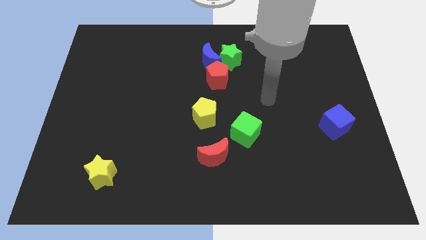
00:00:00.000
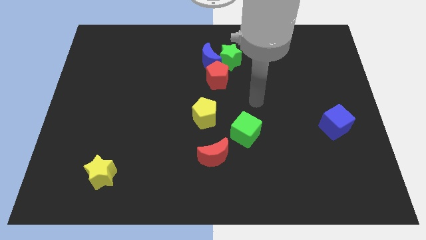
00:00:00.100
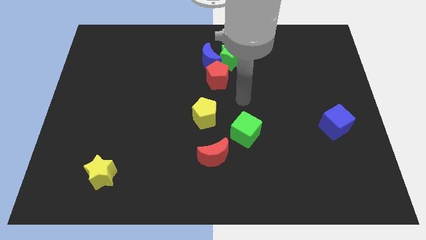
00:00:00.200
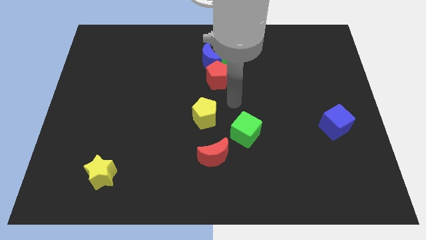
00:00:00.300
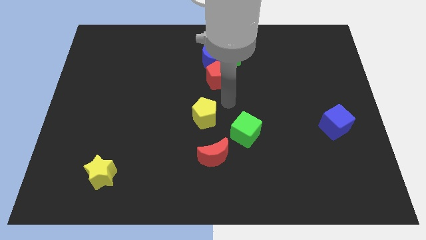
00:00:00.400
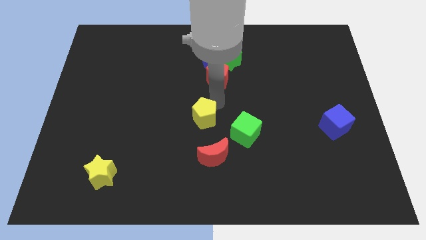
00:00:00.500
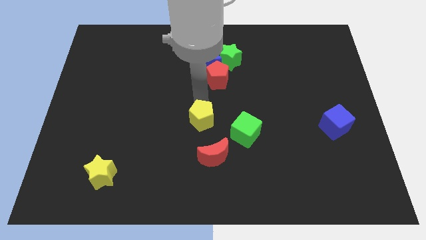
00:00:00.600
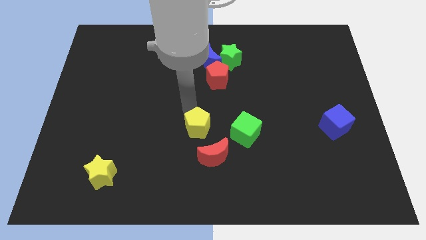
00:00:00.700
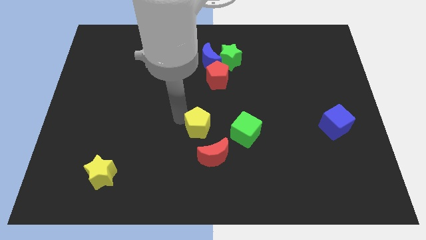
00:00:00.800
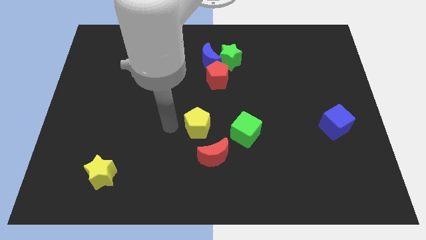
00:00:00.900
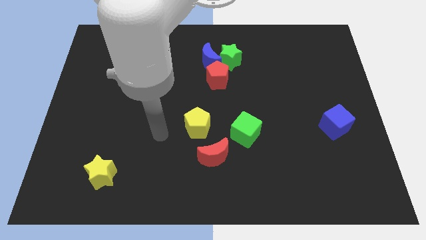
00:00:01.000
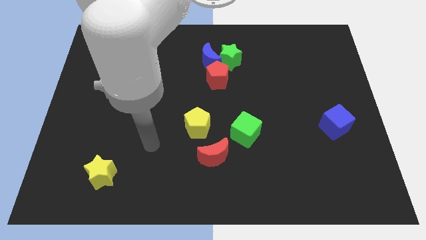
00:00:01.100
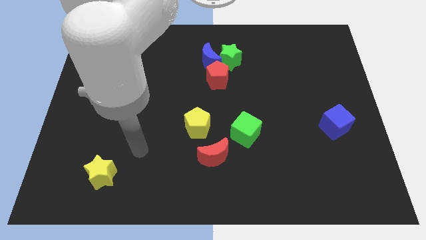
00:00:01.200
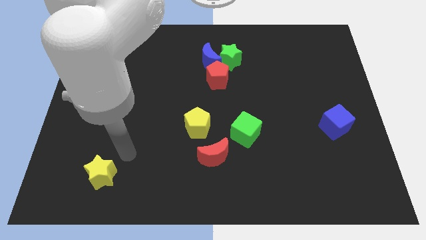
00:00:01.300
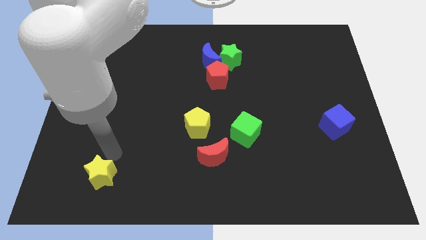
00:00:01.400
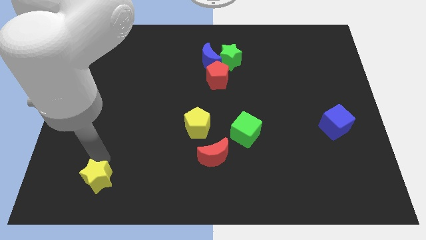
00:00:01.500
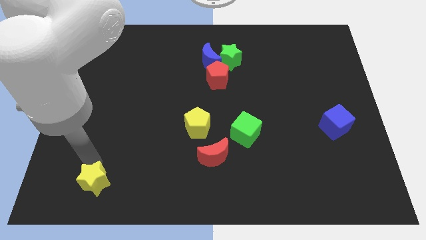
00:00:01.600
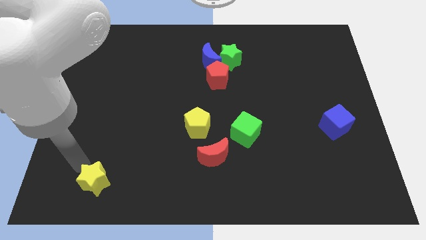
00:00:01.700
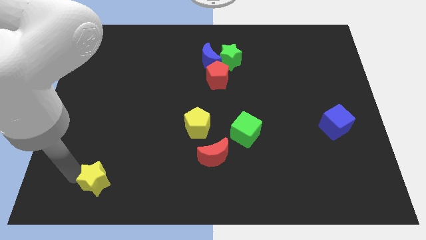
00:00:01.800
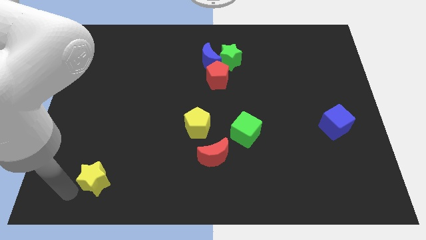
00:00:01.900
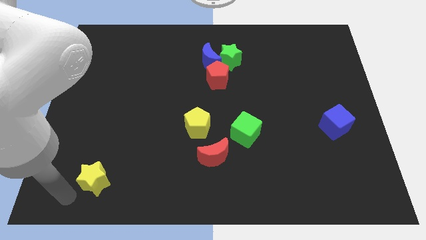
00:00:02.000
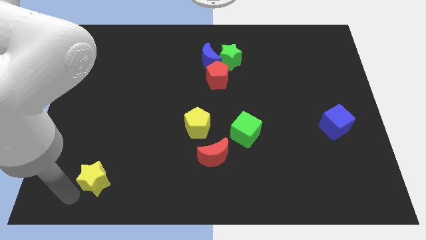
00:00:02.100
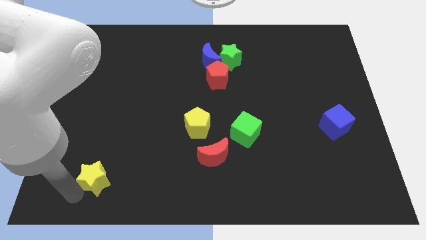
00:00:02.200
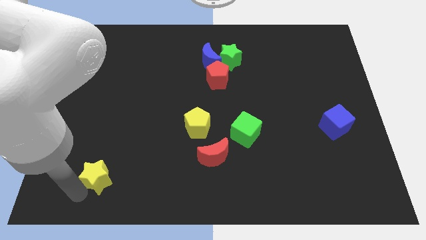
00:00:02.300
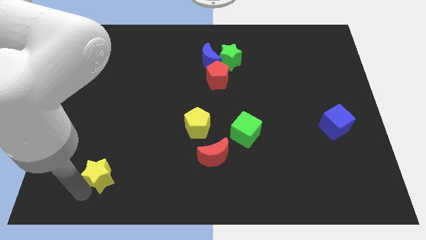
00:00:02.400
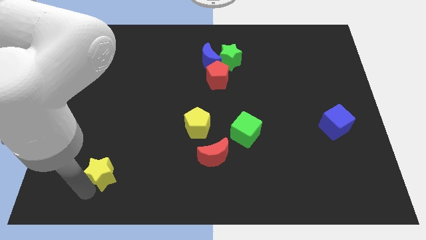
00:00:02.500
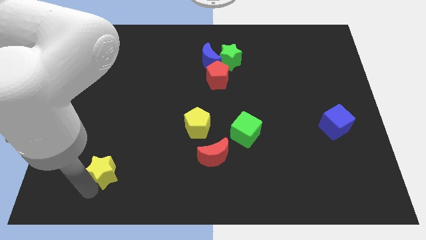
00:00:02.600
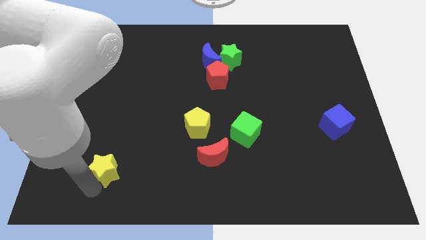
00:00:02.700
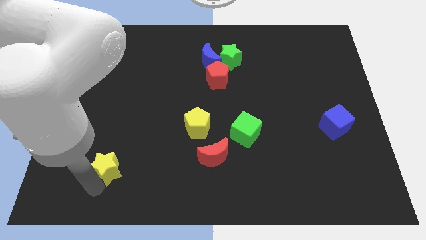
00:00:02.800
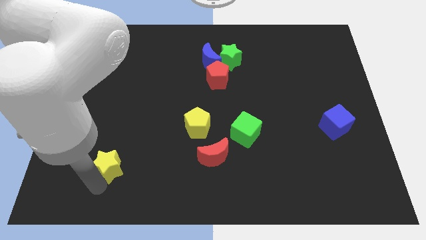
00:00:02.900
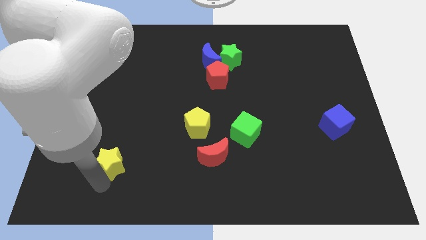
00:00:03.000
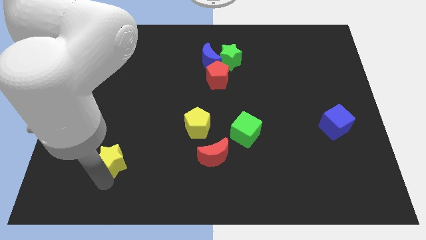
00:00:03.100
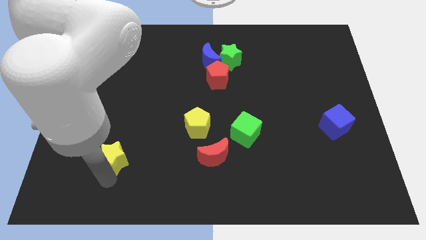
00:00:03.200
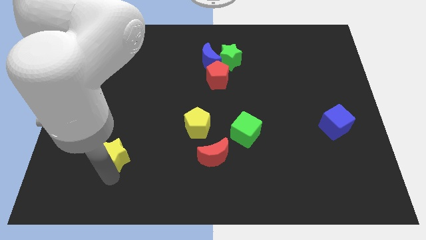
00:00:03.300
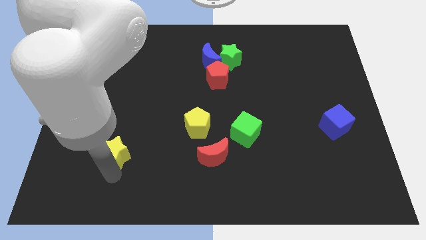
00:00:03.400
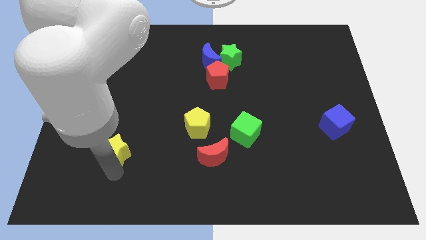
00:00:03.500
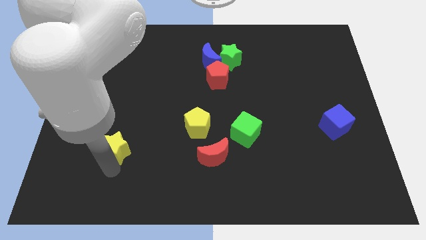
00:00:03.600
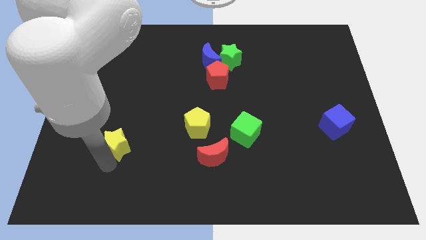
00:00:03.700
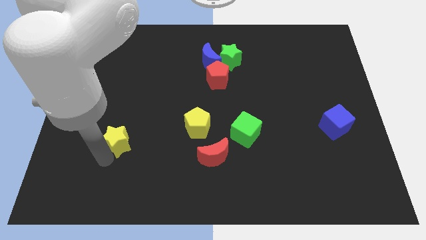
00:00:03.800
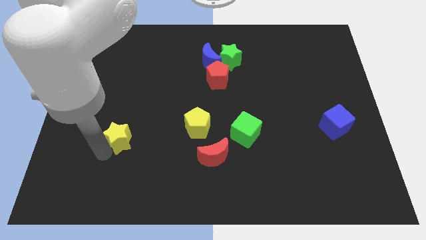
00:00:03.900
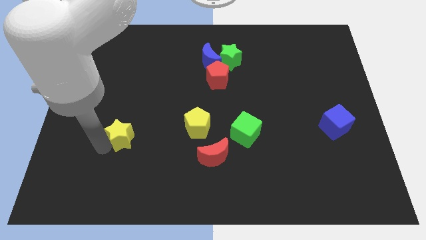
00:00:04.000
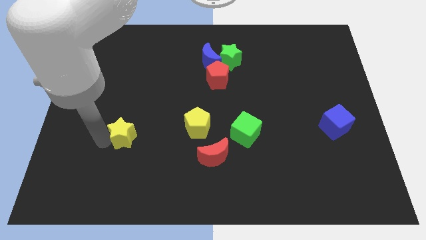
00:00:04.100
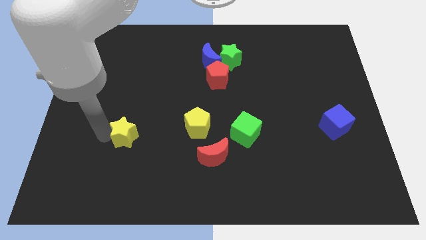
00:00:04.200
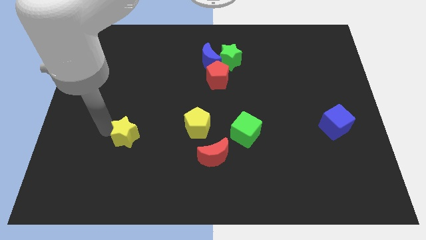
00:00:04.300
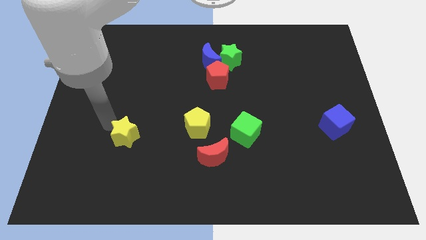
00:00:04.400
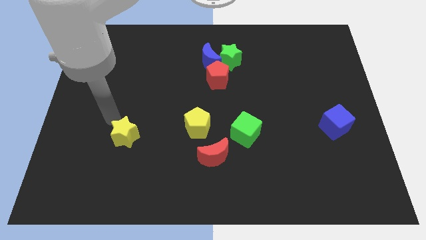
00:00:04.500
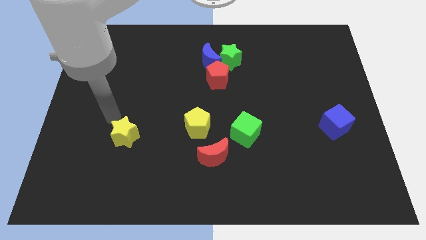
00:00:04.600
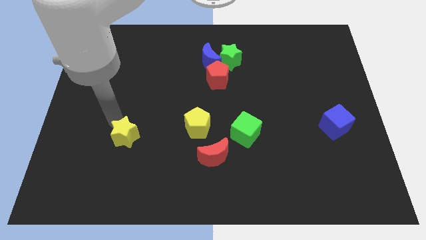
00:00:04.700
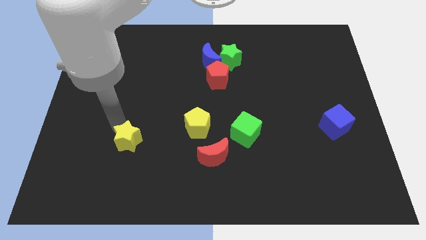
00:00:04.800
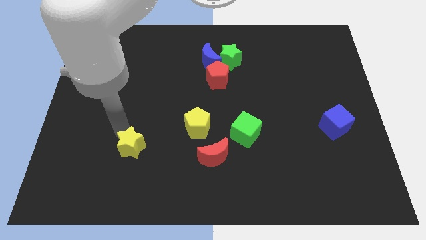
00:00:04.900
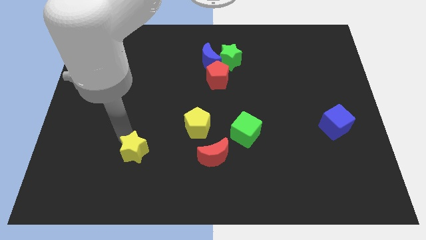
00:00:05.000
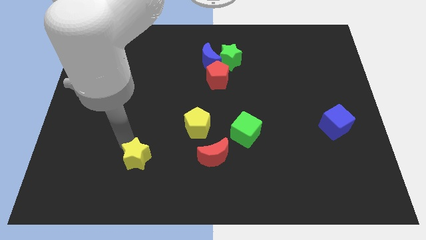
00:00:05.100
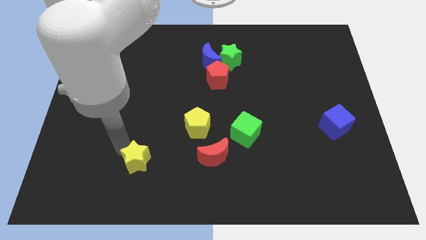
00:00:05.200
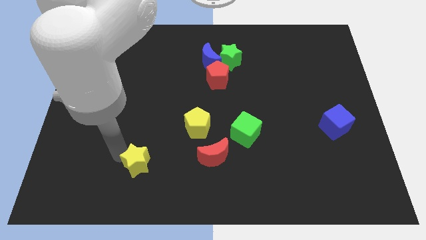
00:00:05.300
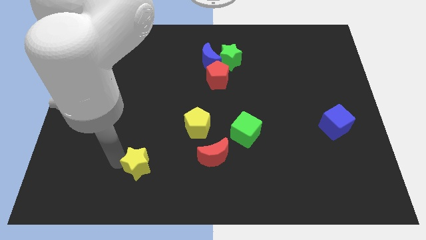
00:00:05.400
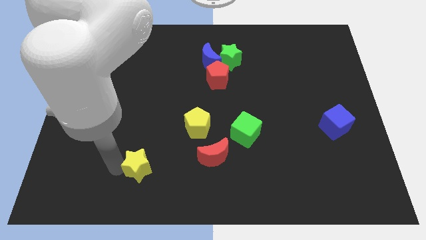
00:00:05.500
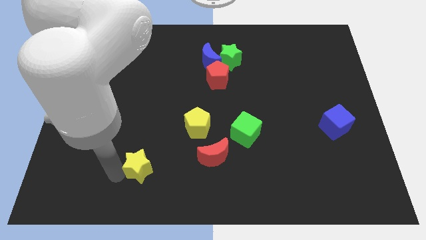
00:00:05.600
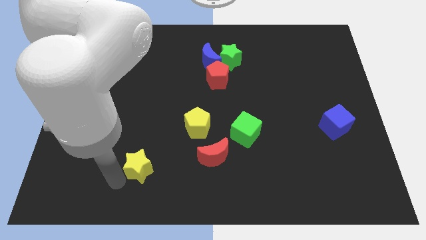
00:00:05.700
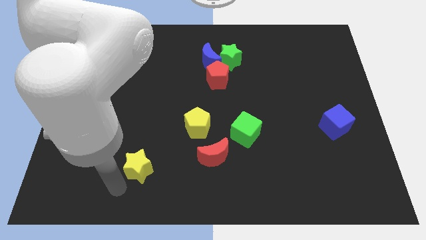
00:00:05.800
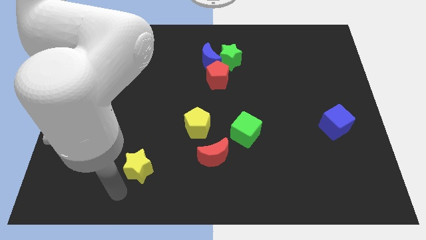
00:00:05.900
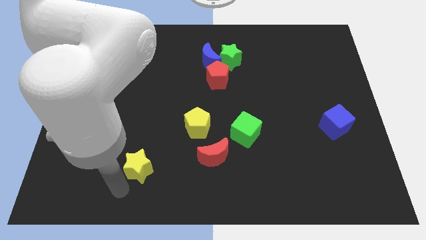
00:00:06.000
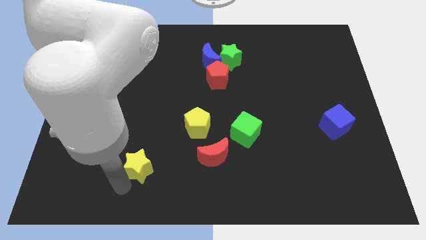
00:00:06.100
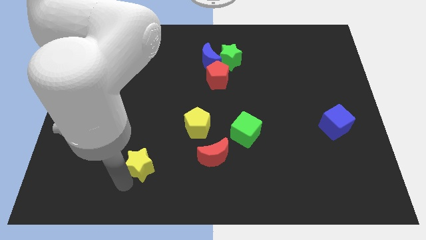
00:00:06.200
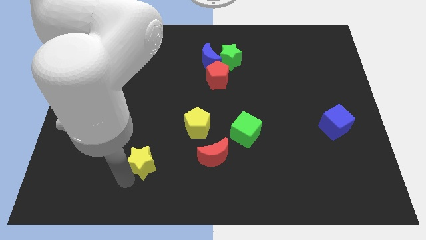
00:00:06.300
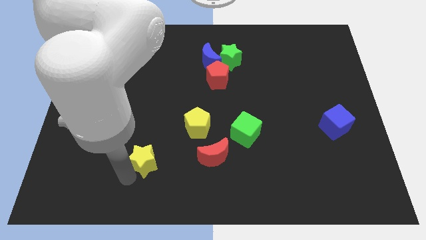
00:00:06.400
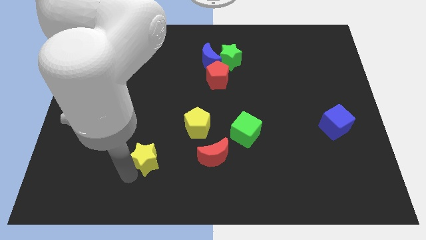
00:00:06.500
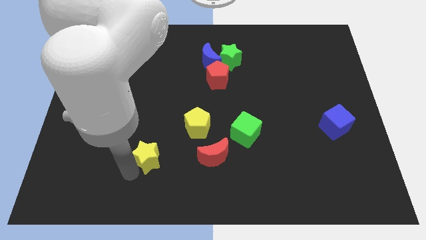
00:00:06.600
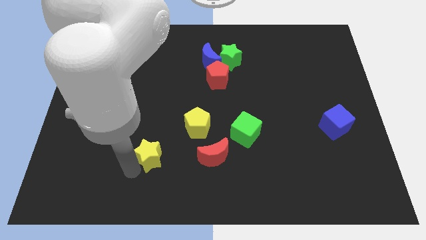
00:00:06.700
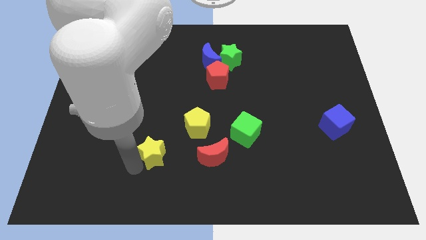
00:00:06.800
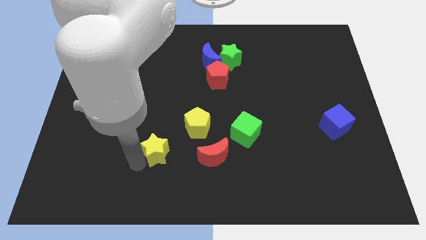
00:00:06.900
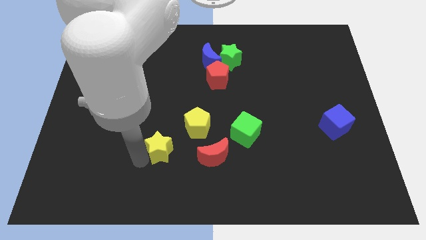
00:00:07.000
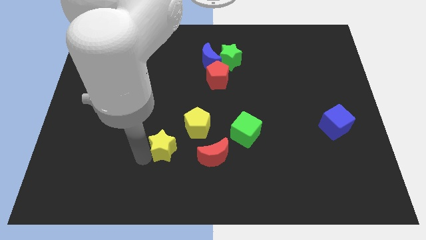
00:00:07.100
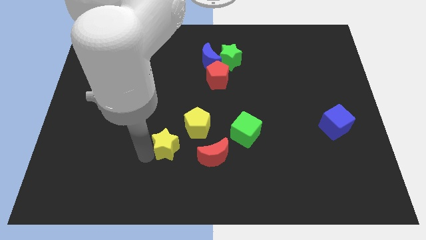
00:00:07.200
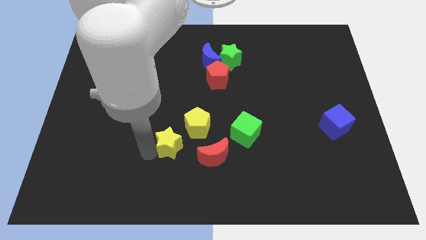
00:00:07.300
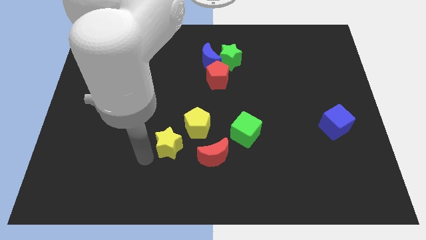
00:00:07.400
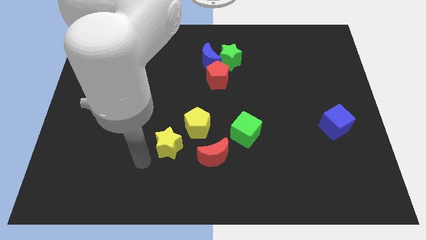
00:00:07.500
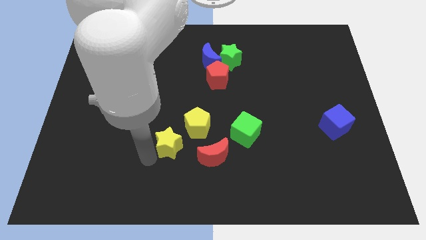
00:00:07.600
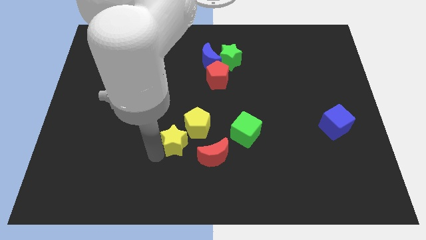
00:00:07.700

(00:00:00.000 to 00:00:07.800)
move the yellow star diagonally up and to the left of the red moon
